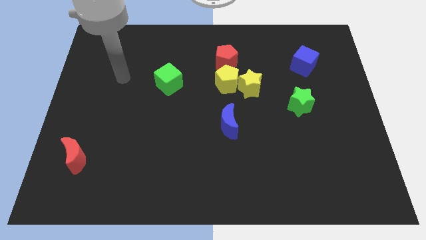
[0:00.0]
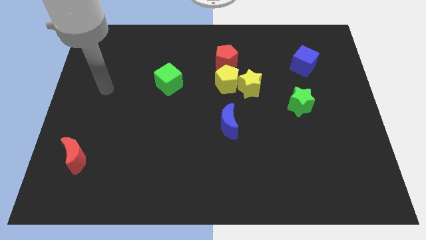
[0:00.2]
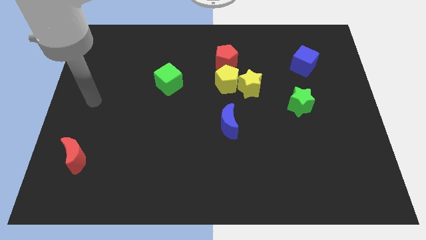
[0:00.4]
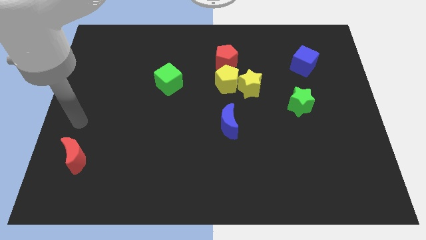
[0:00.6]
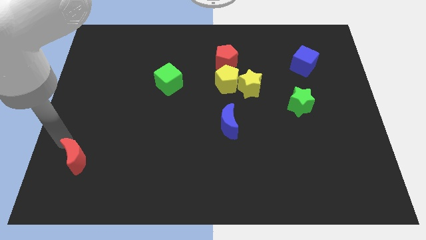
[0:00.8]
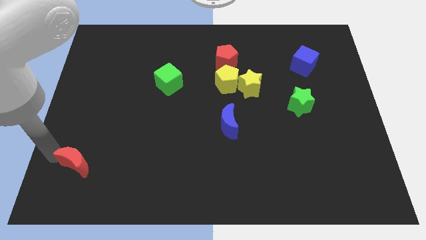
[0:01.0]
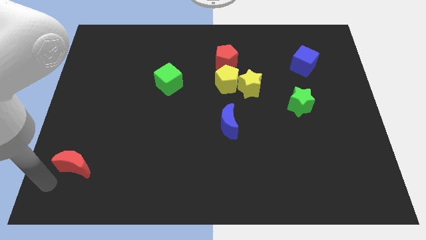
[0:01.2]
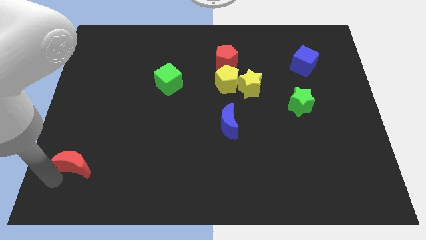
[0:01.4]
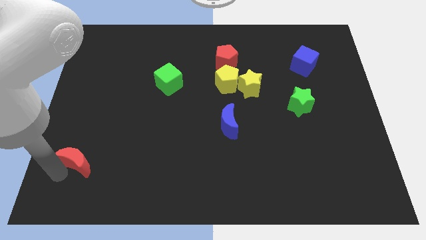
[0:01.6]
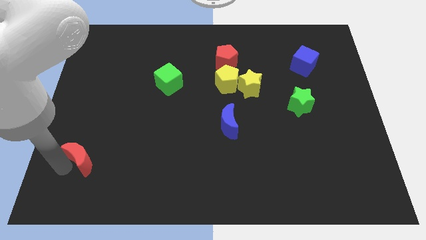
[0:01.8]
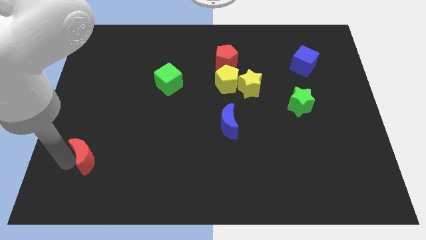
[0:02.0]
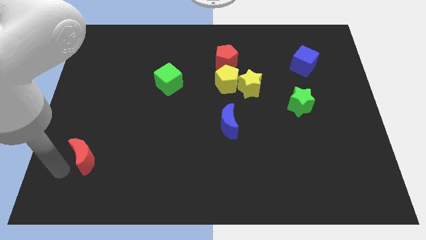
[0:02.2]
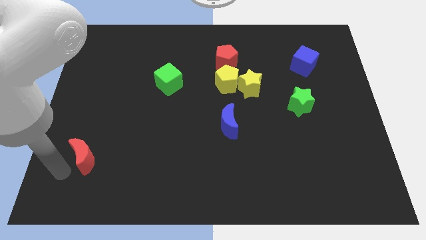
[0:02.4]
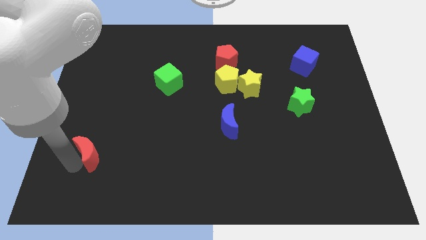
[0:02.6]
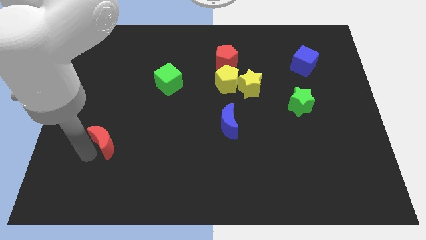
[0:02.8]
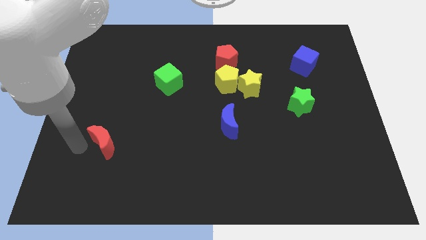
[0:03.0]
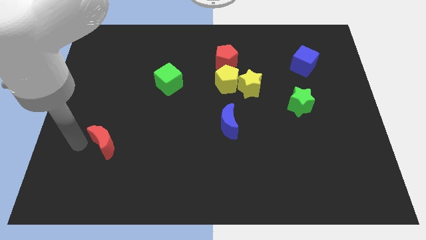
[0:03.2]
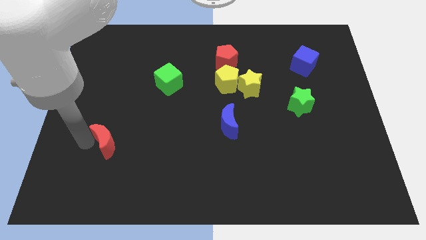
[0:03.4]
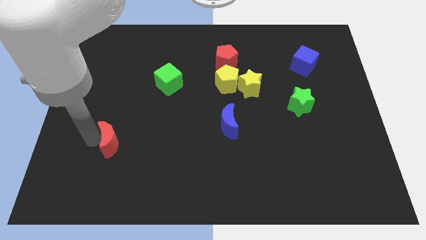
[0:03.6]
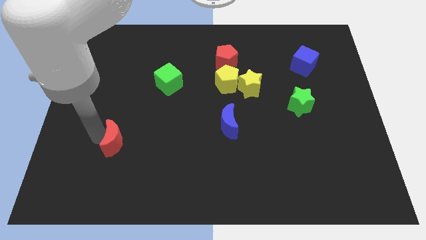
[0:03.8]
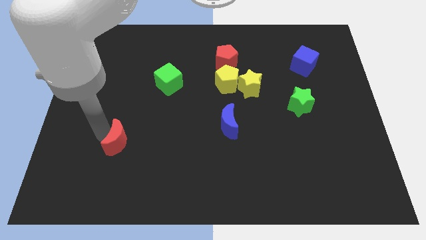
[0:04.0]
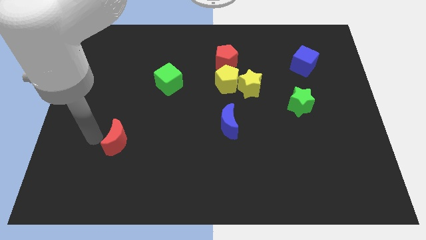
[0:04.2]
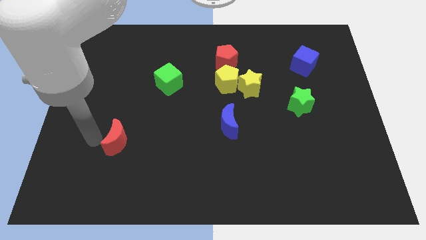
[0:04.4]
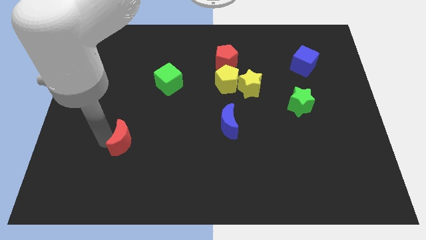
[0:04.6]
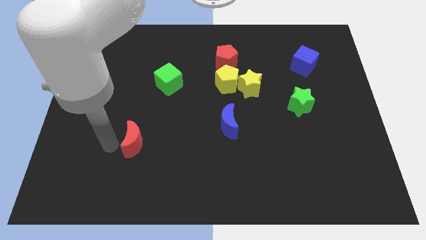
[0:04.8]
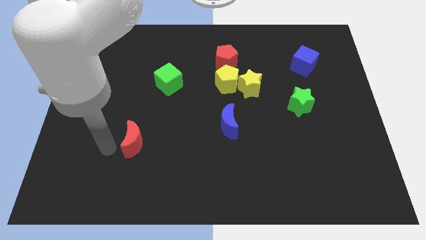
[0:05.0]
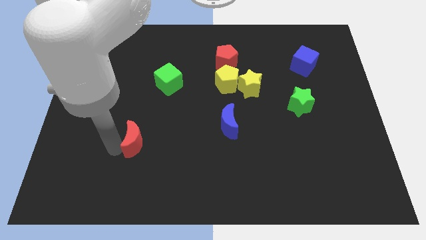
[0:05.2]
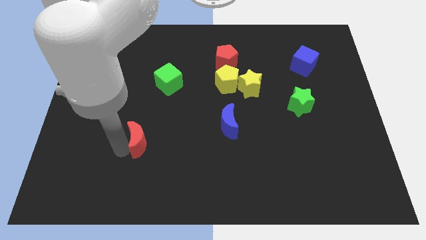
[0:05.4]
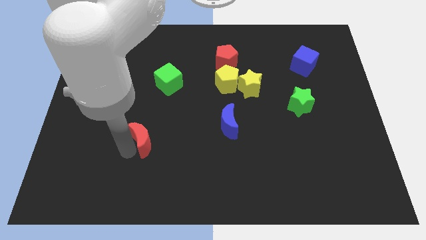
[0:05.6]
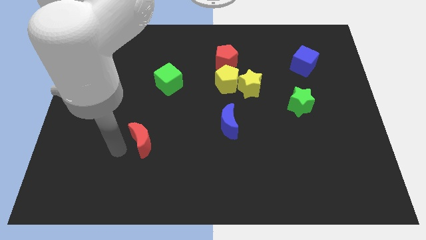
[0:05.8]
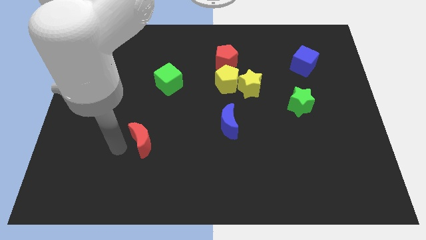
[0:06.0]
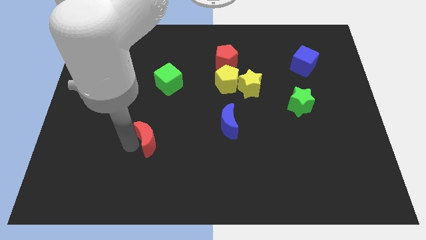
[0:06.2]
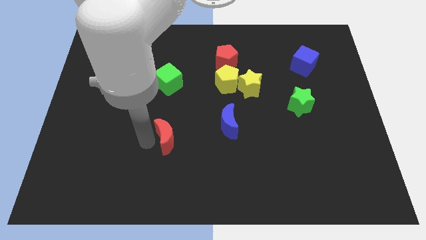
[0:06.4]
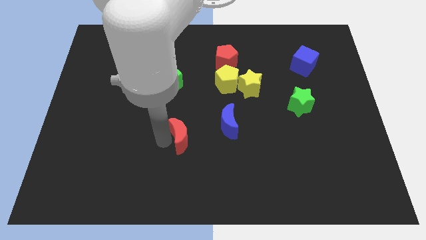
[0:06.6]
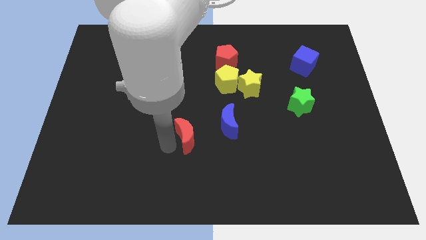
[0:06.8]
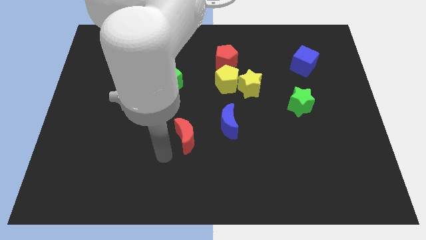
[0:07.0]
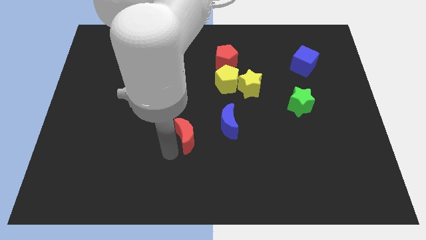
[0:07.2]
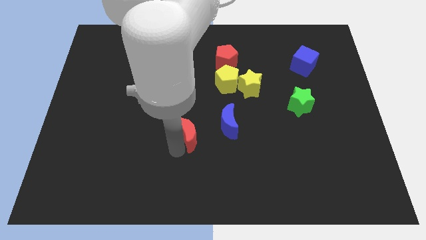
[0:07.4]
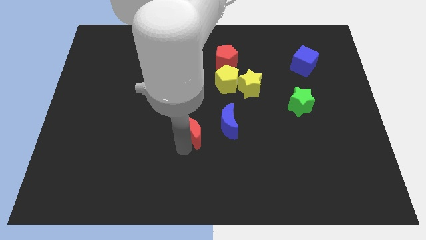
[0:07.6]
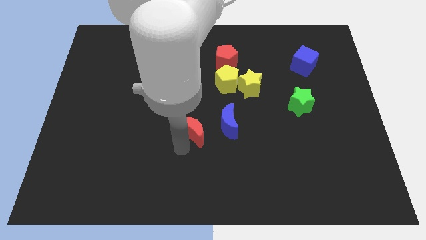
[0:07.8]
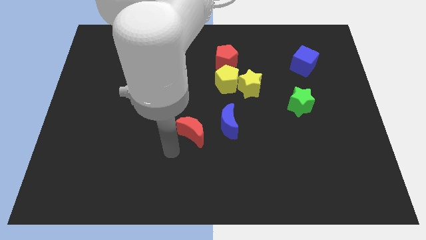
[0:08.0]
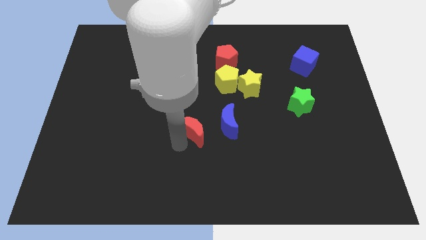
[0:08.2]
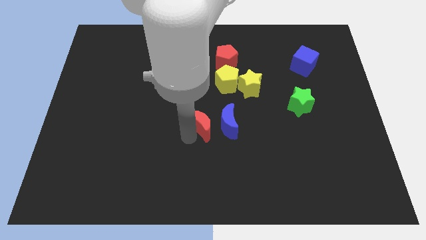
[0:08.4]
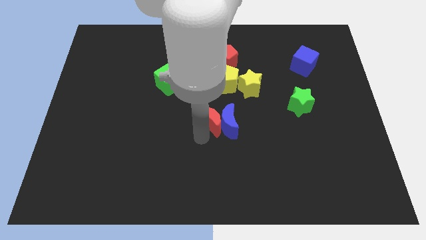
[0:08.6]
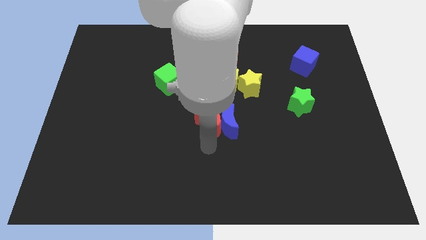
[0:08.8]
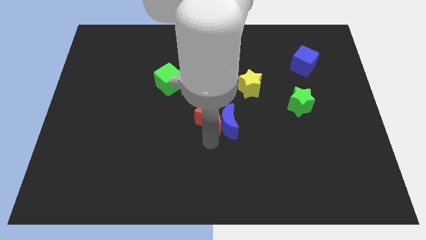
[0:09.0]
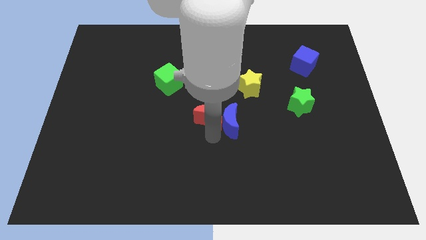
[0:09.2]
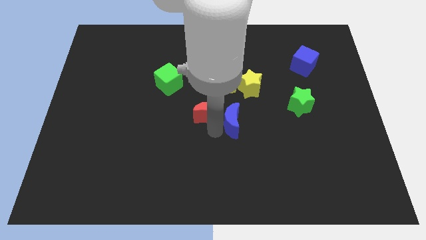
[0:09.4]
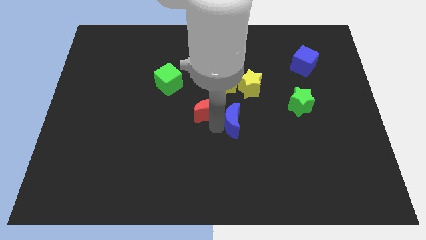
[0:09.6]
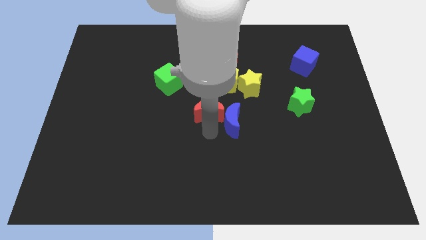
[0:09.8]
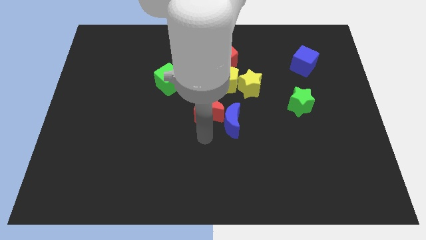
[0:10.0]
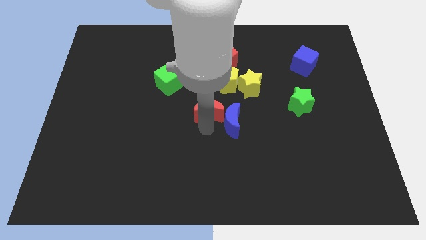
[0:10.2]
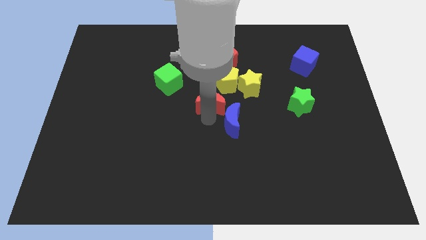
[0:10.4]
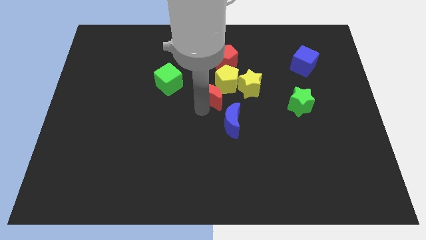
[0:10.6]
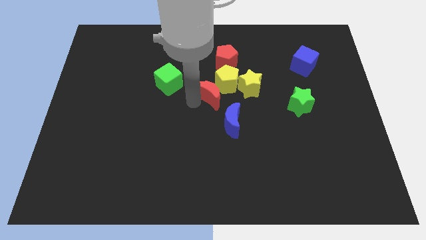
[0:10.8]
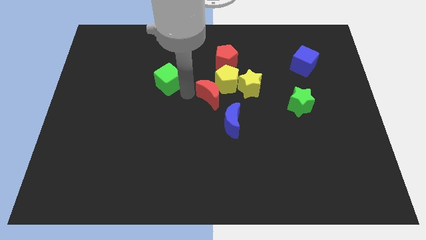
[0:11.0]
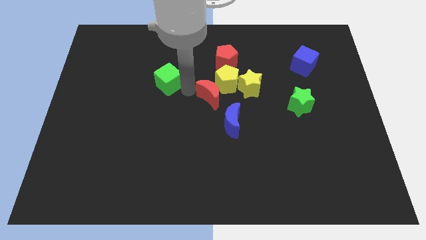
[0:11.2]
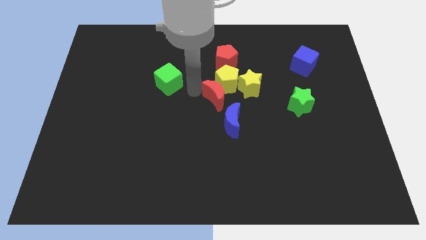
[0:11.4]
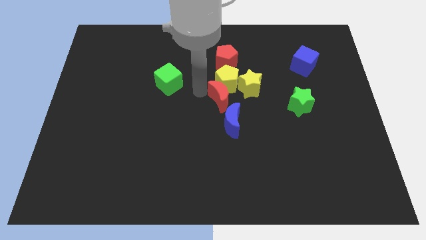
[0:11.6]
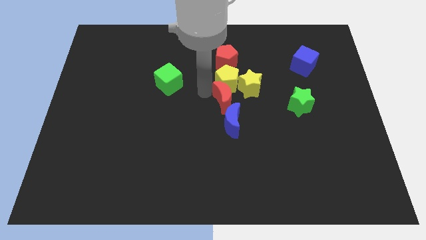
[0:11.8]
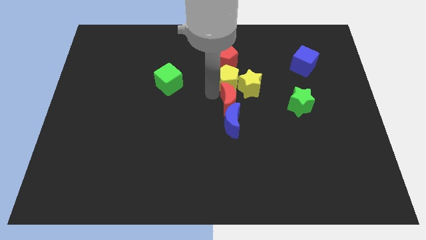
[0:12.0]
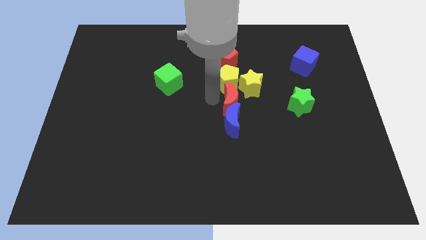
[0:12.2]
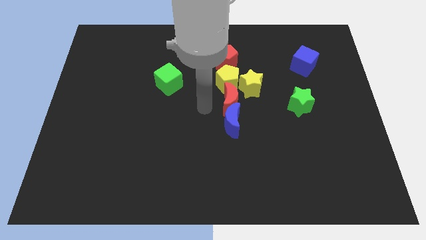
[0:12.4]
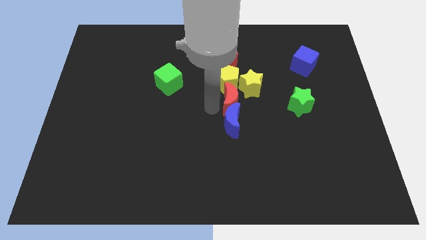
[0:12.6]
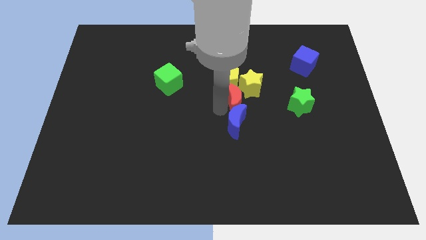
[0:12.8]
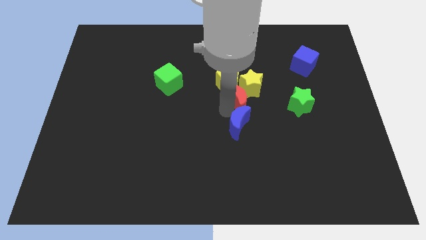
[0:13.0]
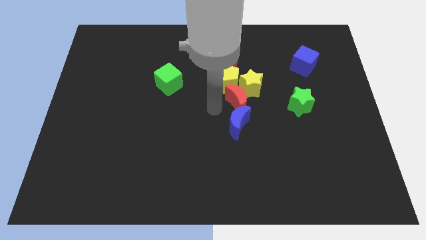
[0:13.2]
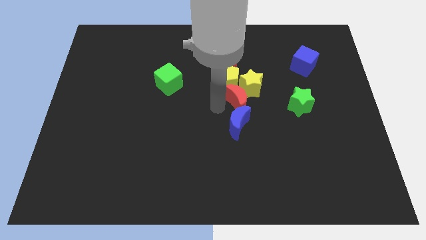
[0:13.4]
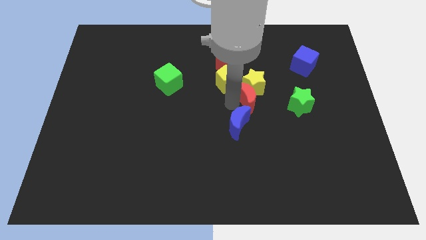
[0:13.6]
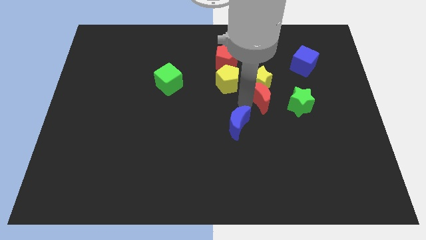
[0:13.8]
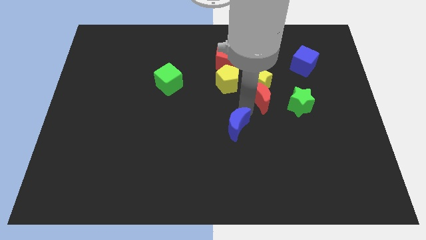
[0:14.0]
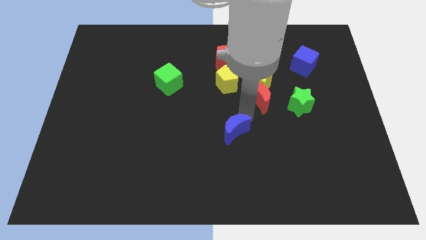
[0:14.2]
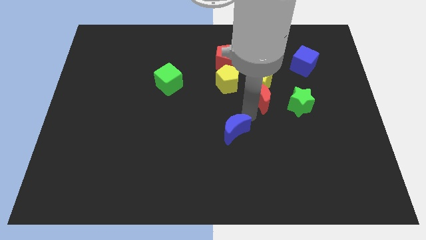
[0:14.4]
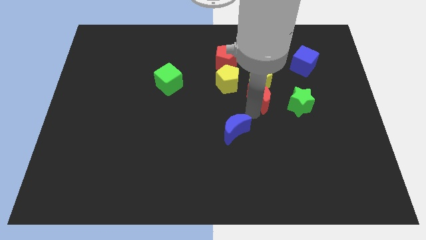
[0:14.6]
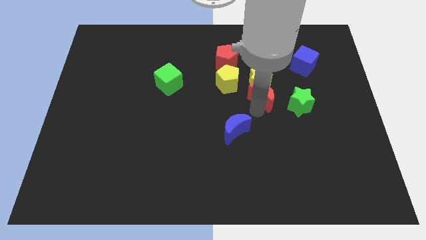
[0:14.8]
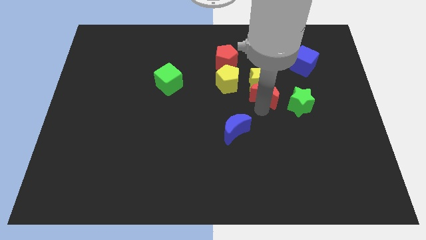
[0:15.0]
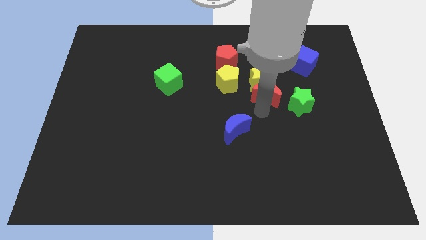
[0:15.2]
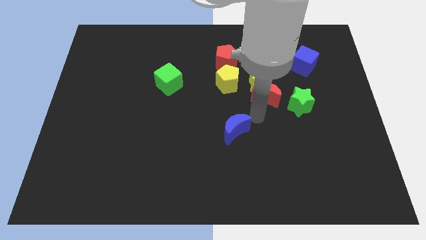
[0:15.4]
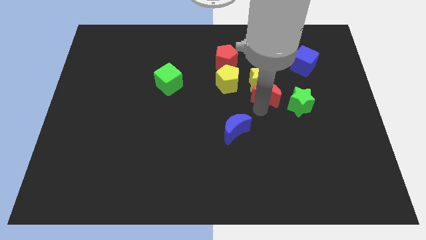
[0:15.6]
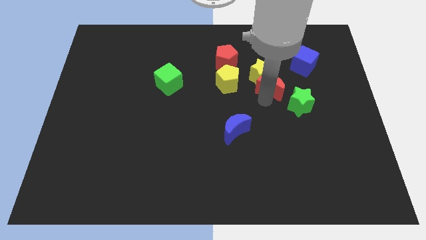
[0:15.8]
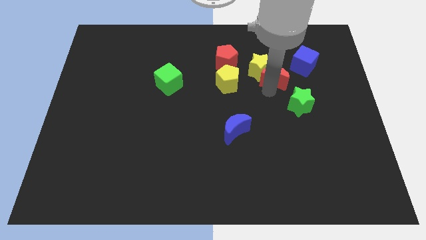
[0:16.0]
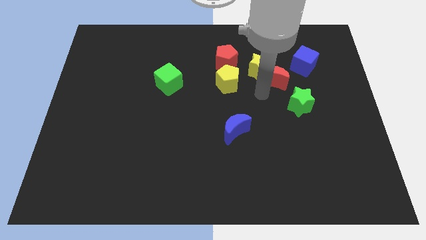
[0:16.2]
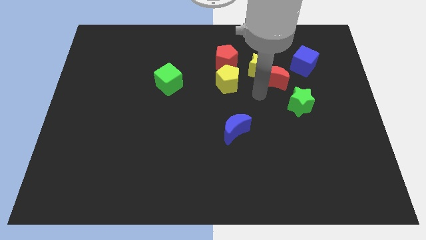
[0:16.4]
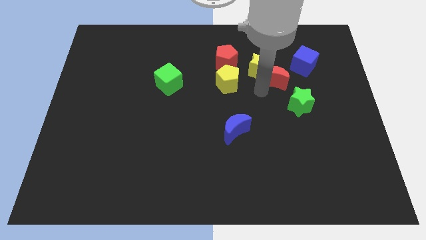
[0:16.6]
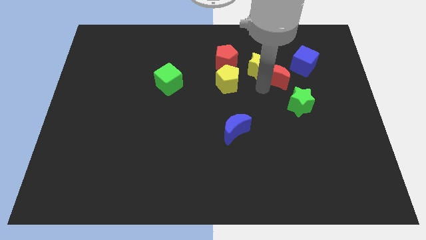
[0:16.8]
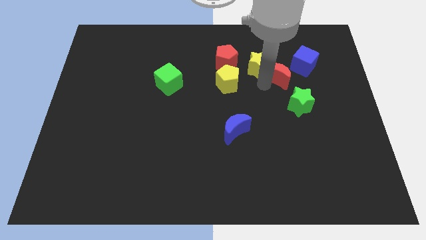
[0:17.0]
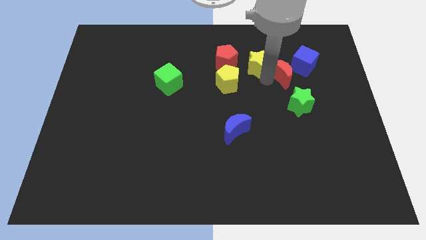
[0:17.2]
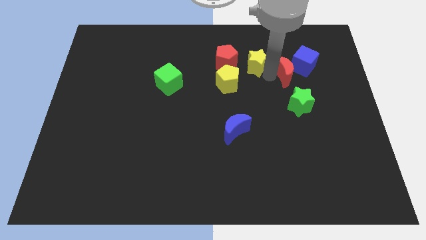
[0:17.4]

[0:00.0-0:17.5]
slide the red moon close to the blue cube
